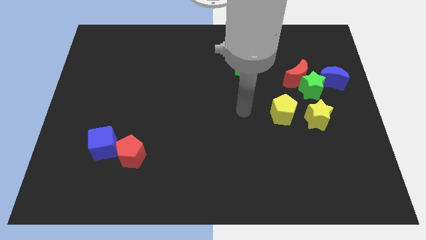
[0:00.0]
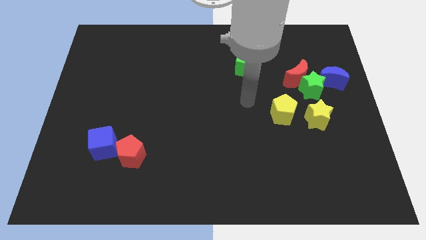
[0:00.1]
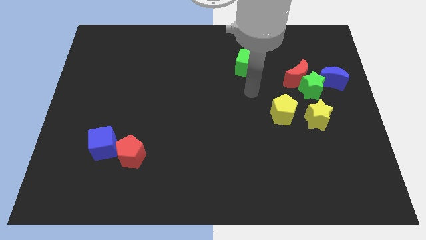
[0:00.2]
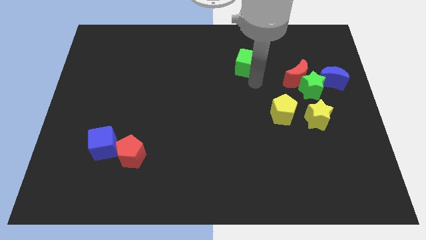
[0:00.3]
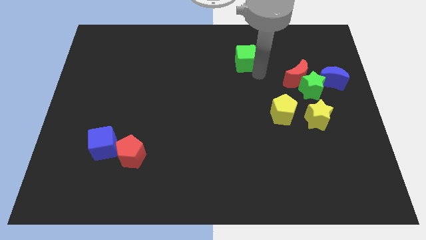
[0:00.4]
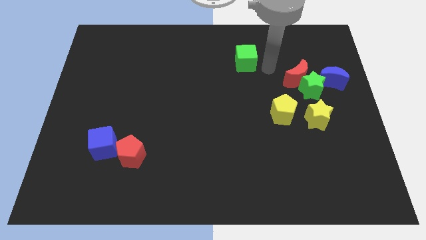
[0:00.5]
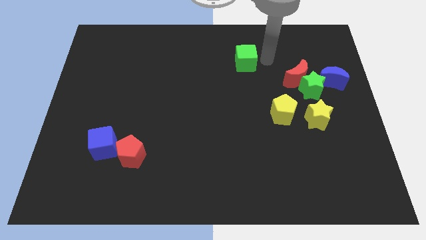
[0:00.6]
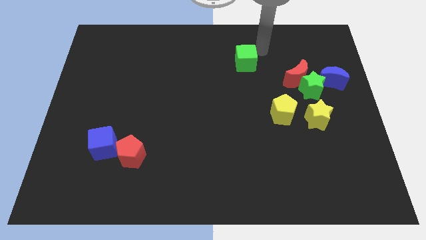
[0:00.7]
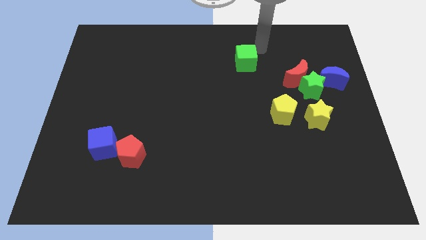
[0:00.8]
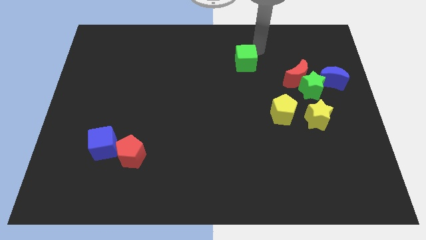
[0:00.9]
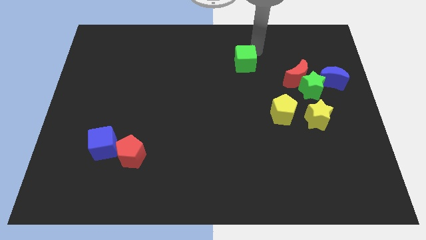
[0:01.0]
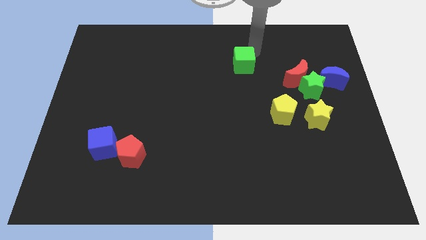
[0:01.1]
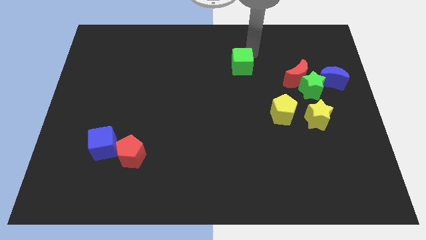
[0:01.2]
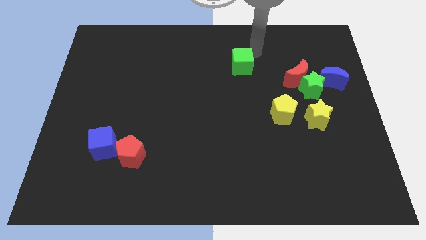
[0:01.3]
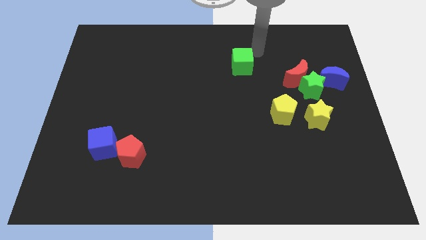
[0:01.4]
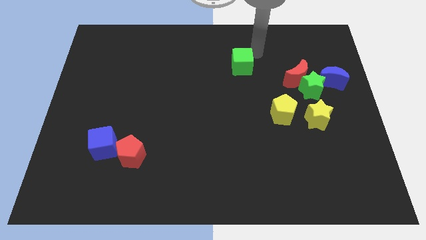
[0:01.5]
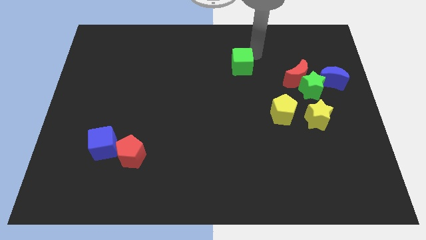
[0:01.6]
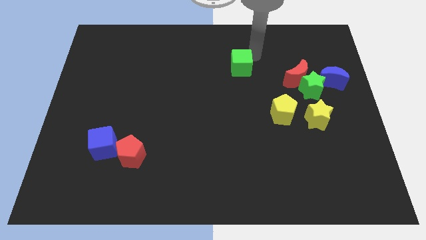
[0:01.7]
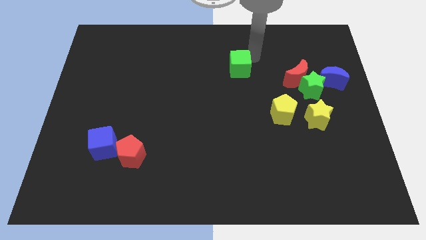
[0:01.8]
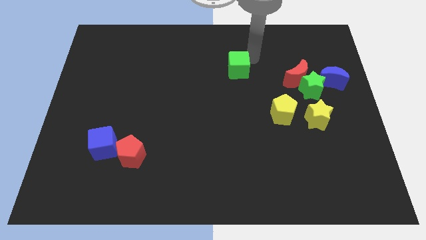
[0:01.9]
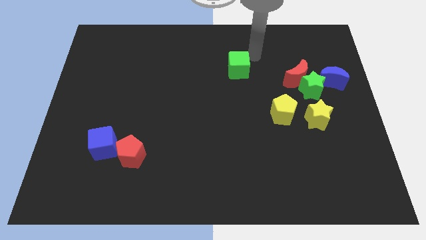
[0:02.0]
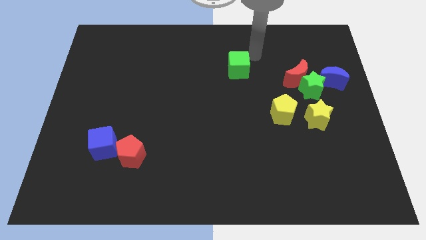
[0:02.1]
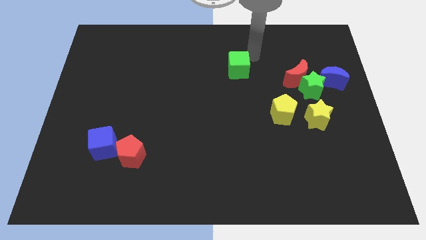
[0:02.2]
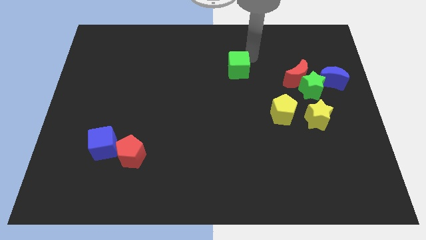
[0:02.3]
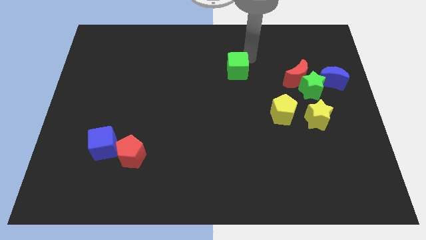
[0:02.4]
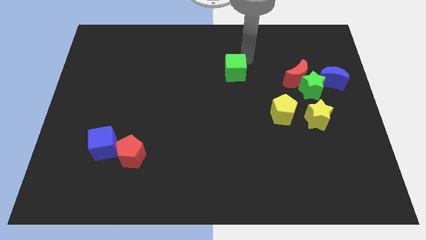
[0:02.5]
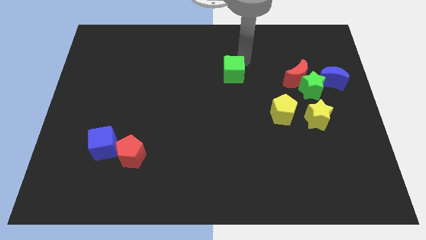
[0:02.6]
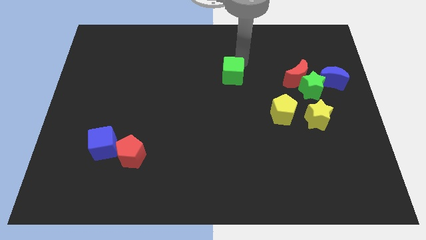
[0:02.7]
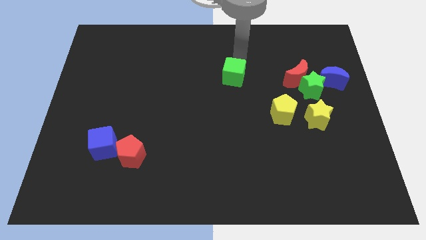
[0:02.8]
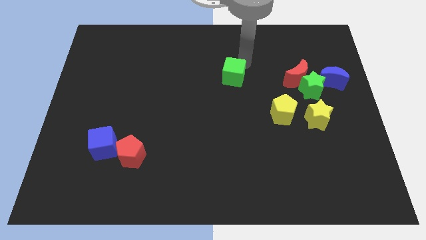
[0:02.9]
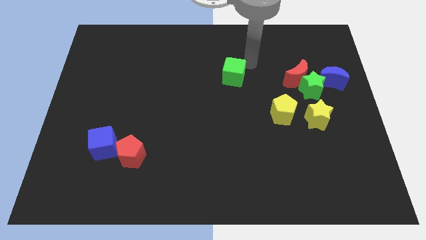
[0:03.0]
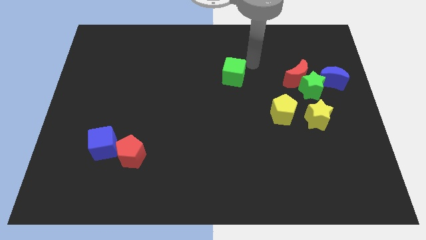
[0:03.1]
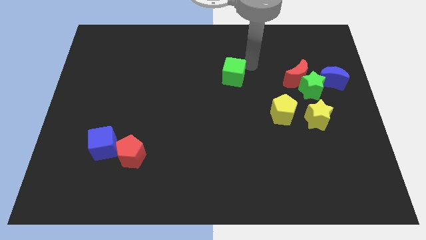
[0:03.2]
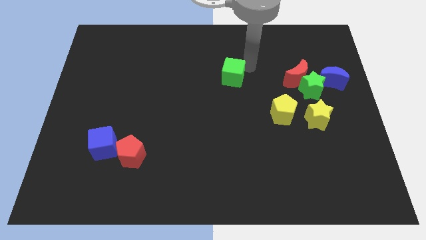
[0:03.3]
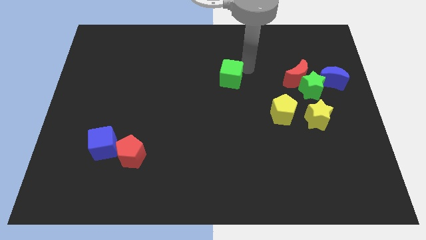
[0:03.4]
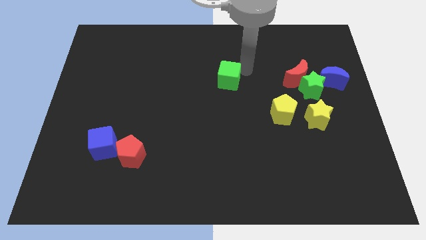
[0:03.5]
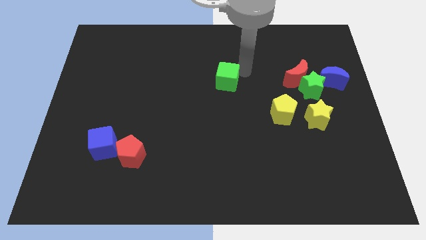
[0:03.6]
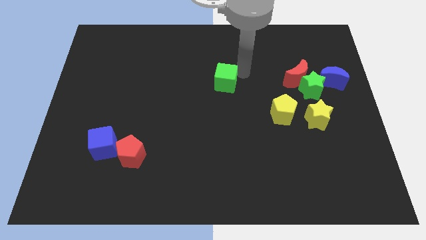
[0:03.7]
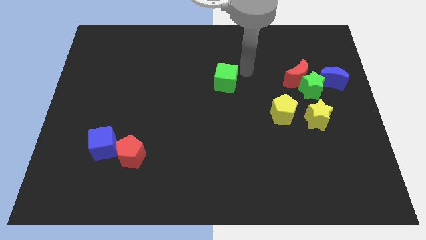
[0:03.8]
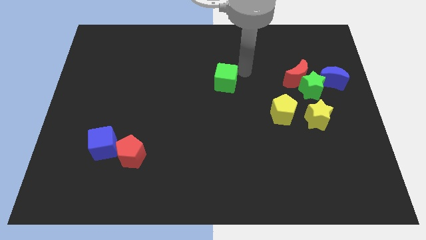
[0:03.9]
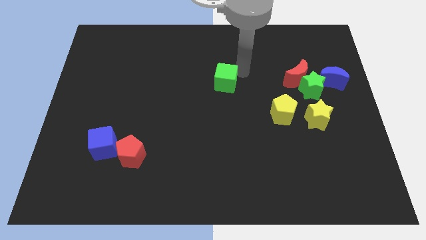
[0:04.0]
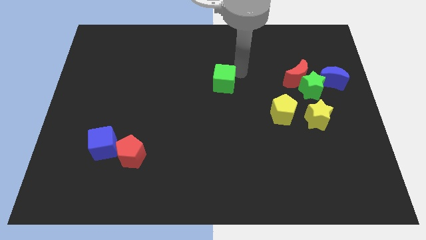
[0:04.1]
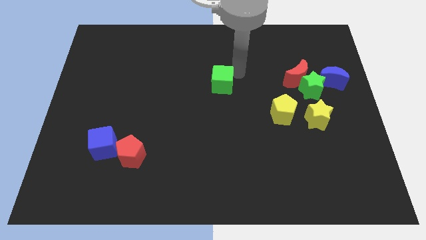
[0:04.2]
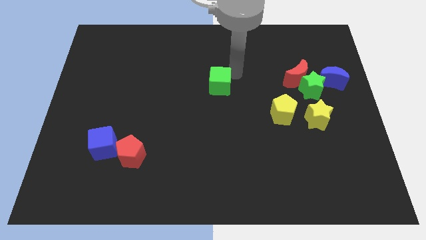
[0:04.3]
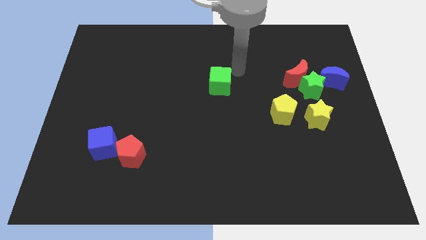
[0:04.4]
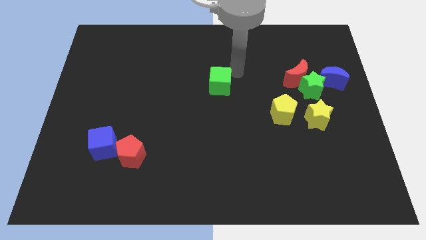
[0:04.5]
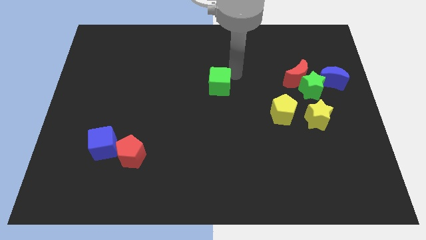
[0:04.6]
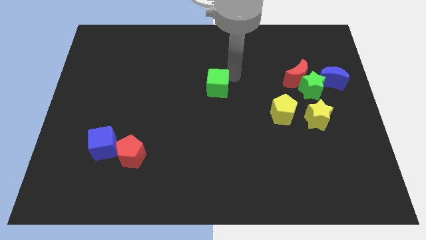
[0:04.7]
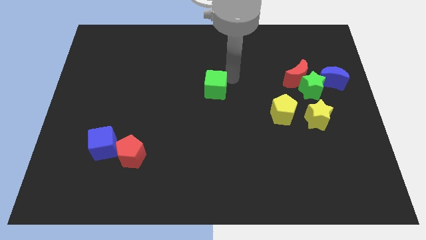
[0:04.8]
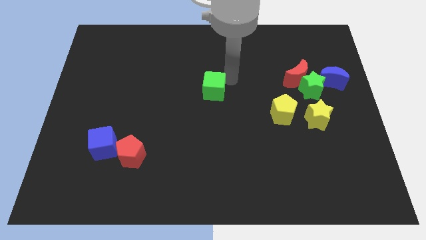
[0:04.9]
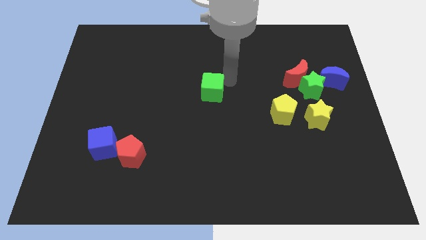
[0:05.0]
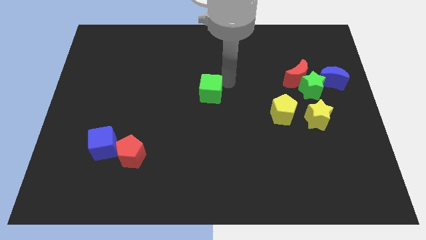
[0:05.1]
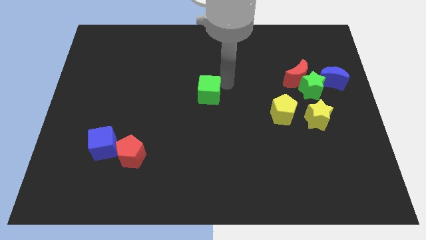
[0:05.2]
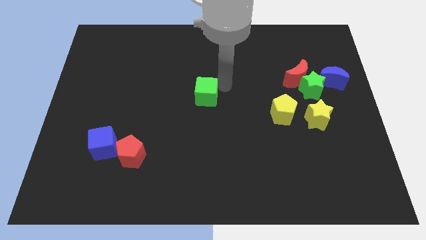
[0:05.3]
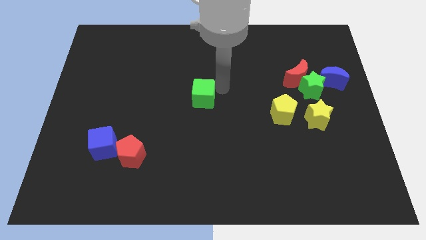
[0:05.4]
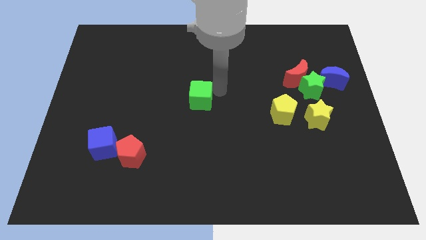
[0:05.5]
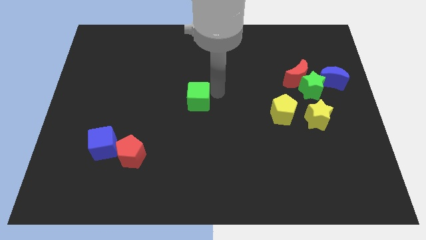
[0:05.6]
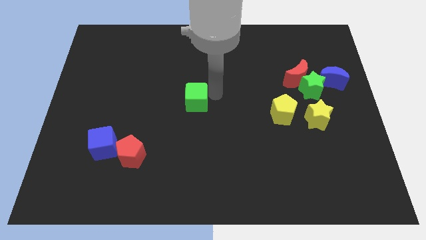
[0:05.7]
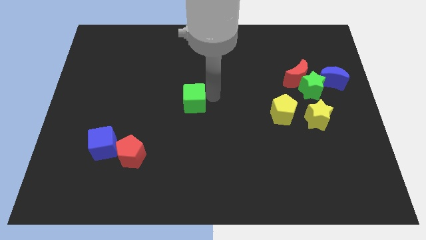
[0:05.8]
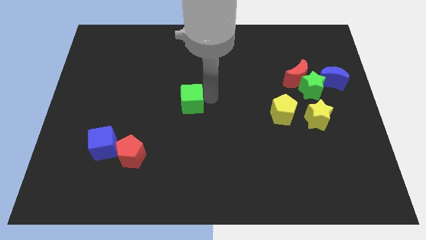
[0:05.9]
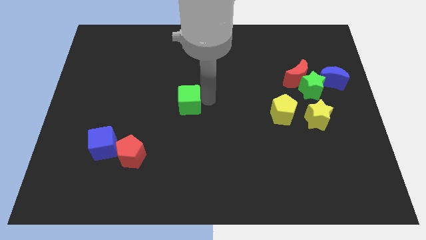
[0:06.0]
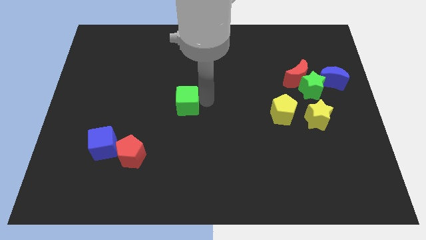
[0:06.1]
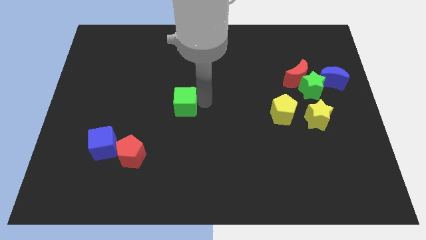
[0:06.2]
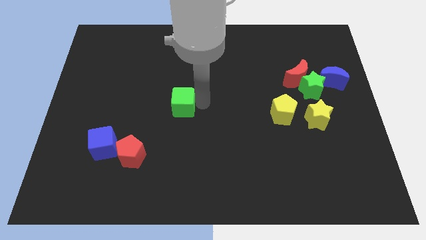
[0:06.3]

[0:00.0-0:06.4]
push the green cube diagonally downwards and left

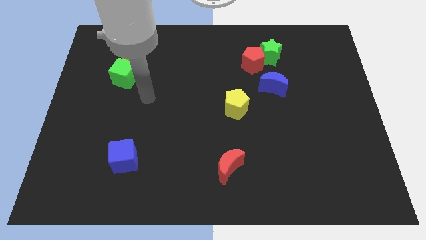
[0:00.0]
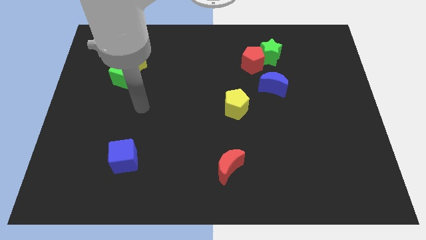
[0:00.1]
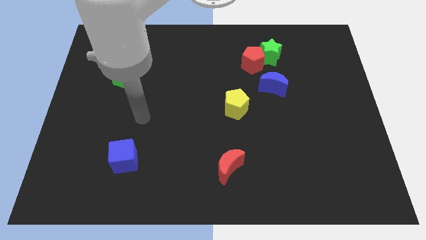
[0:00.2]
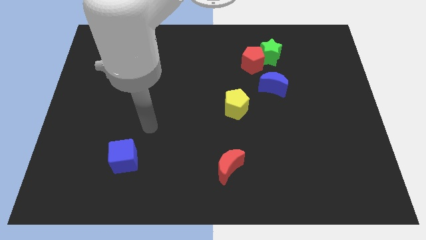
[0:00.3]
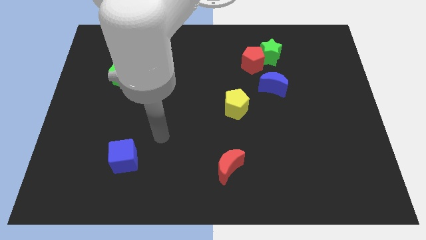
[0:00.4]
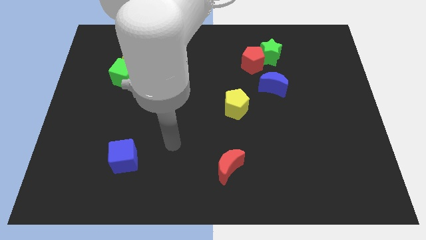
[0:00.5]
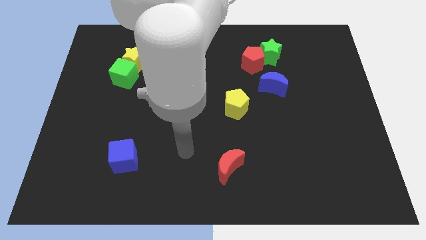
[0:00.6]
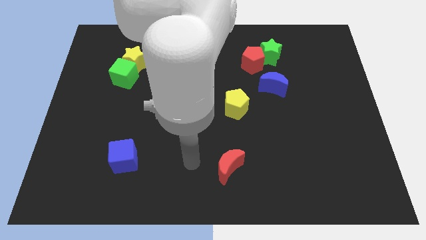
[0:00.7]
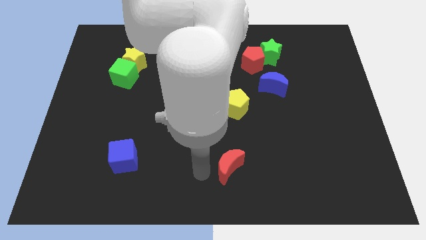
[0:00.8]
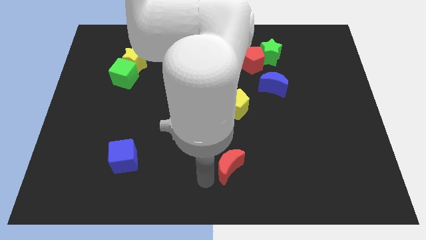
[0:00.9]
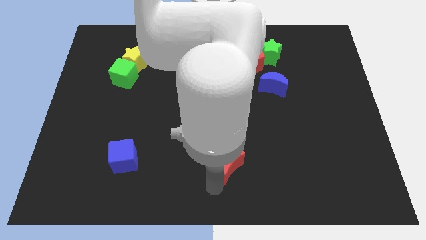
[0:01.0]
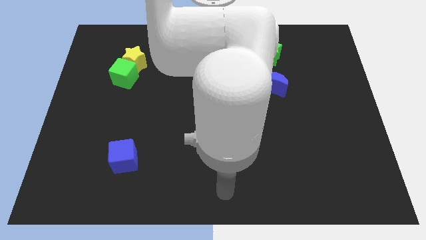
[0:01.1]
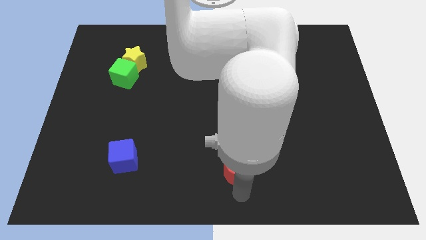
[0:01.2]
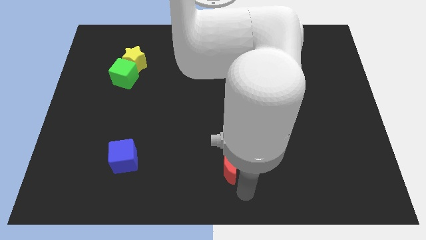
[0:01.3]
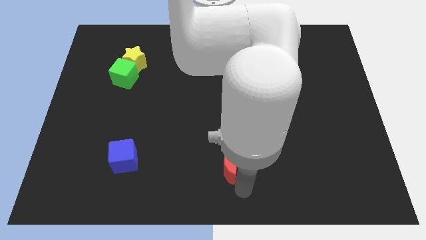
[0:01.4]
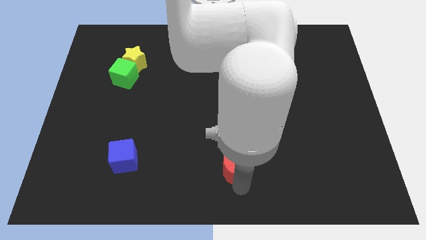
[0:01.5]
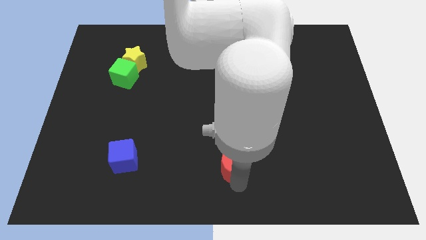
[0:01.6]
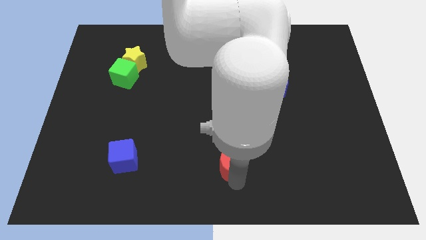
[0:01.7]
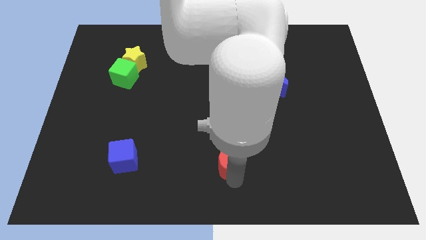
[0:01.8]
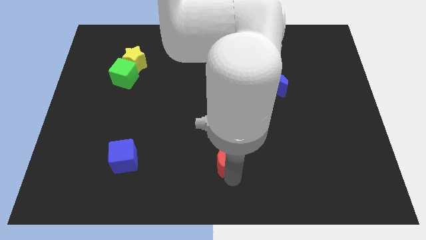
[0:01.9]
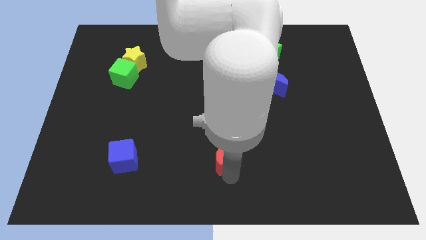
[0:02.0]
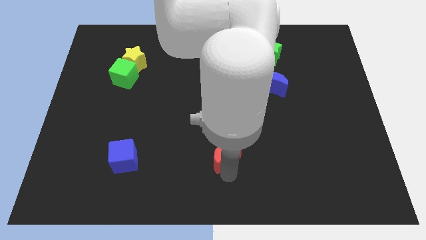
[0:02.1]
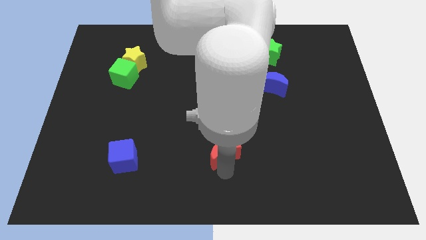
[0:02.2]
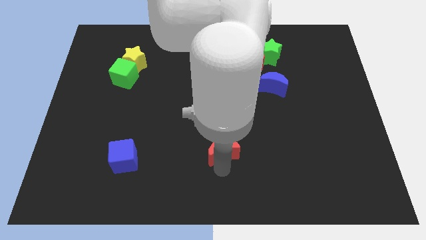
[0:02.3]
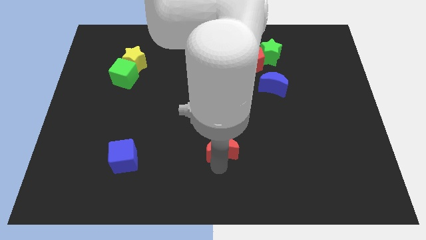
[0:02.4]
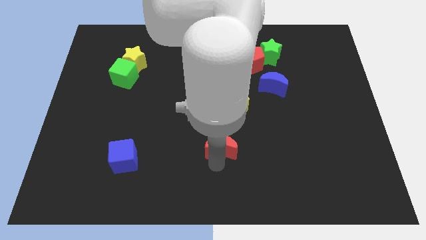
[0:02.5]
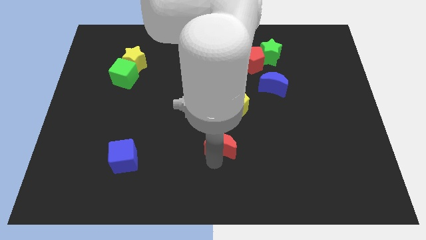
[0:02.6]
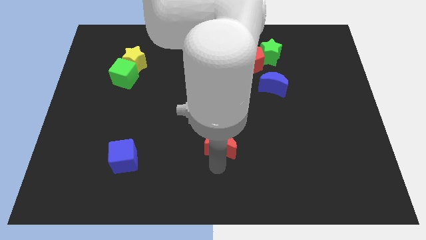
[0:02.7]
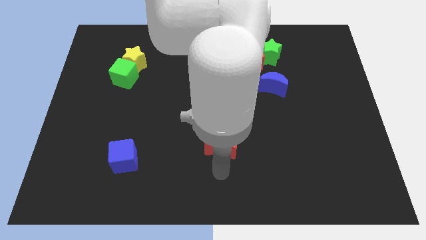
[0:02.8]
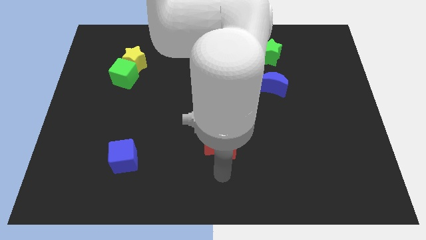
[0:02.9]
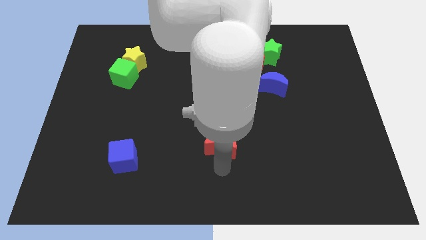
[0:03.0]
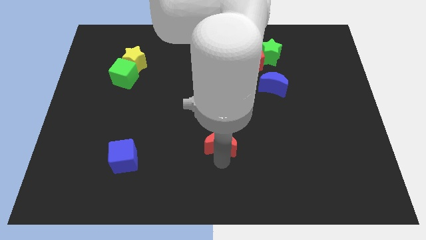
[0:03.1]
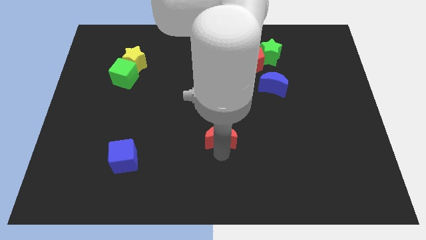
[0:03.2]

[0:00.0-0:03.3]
push the red moon upwards a bit
